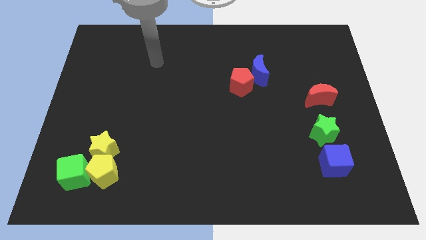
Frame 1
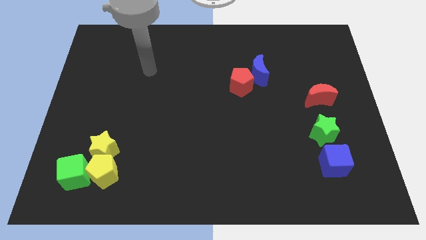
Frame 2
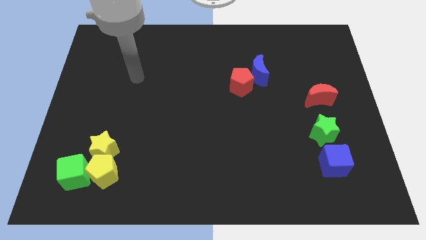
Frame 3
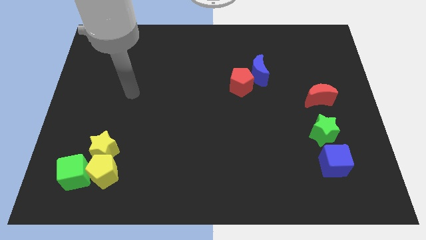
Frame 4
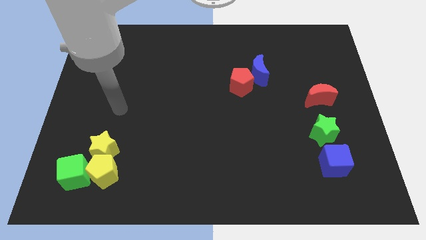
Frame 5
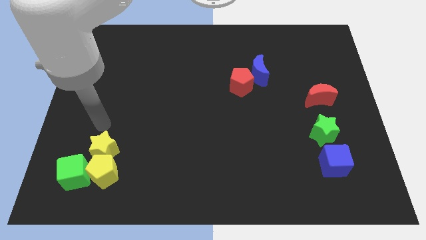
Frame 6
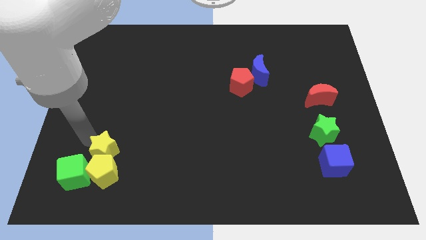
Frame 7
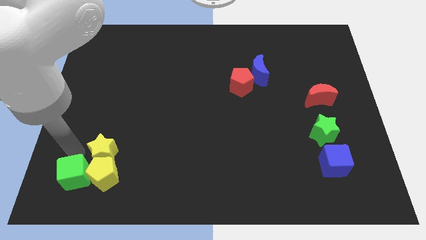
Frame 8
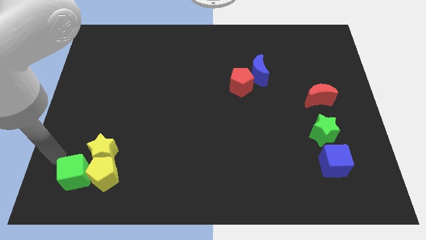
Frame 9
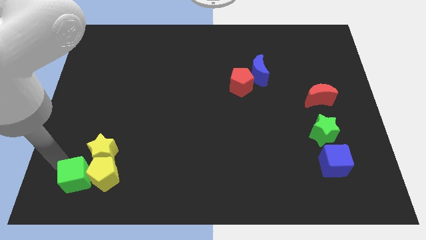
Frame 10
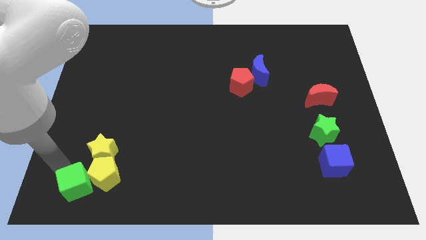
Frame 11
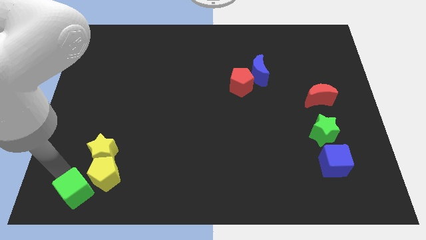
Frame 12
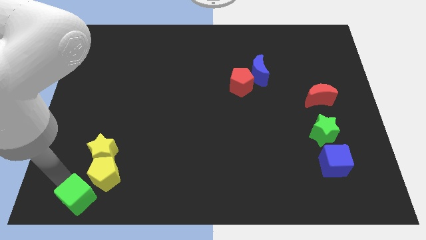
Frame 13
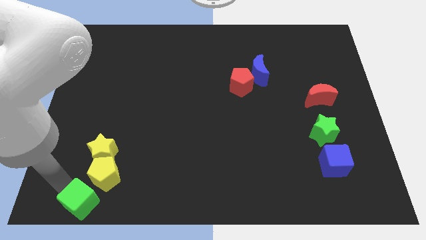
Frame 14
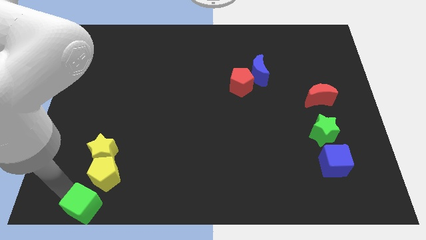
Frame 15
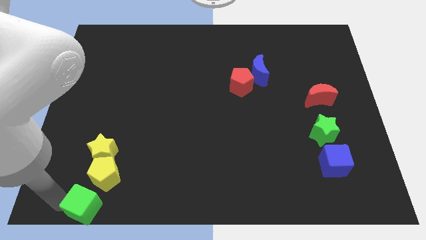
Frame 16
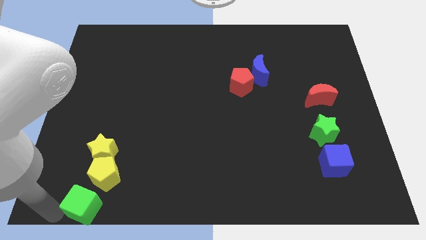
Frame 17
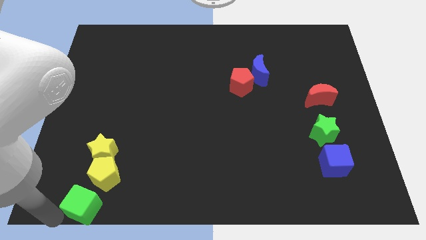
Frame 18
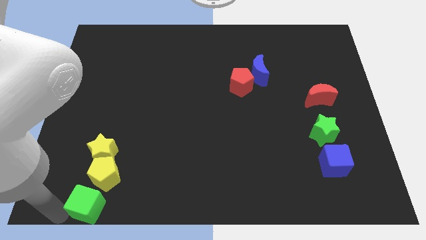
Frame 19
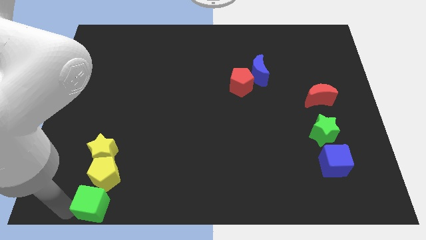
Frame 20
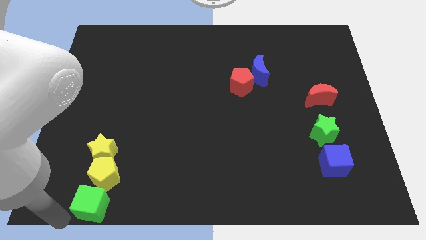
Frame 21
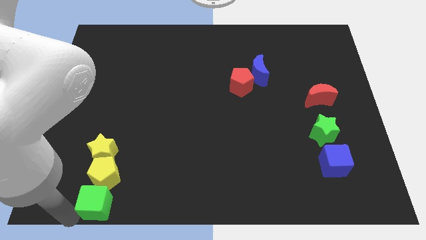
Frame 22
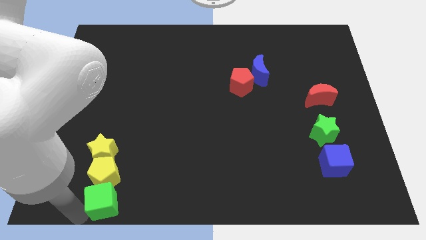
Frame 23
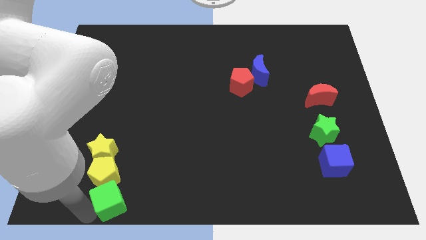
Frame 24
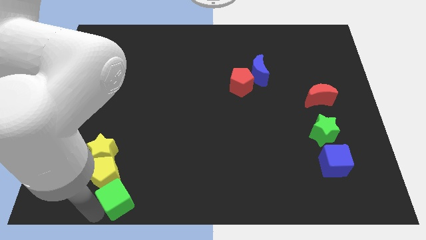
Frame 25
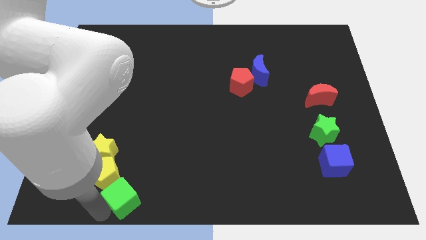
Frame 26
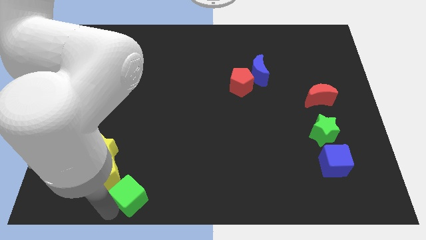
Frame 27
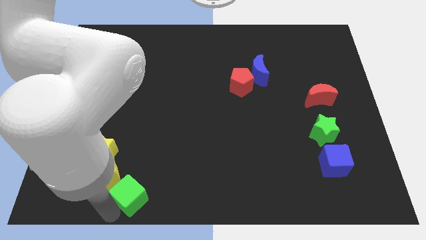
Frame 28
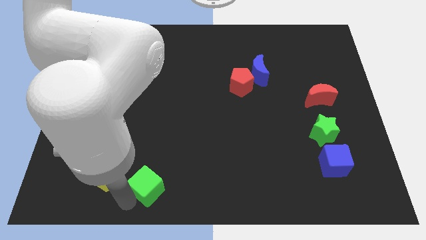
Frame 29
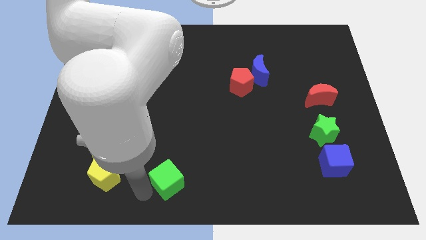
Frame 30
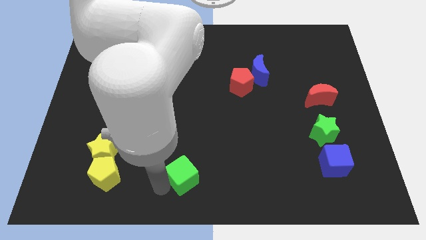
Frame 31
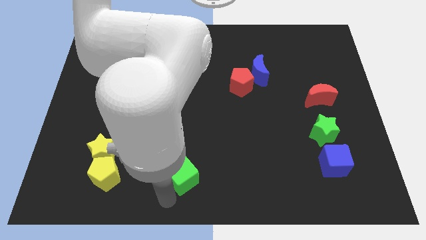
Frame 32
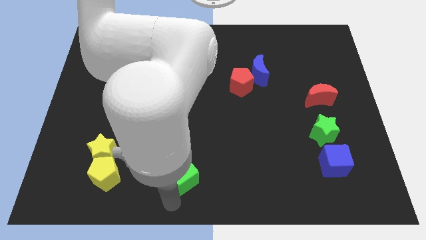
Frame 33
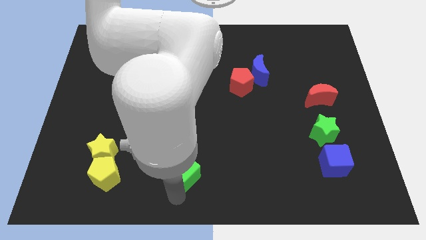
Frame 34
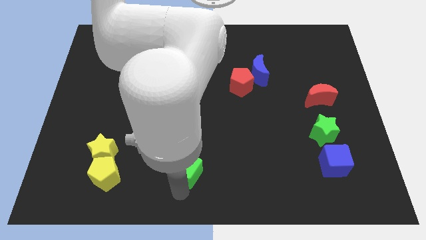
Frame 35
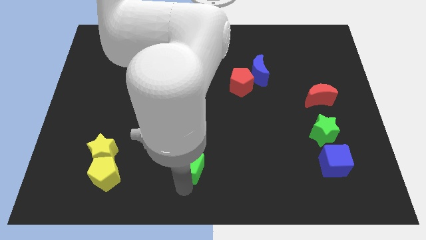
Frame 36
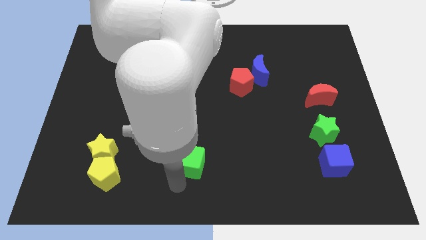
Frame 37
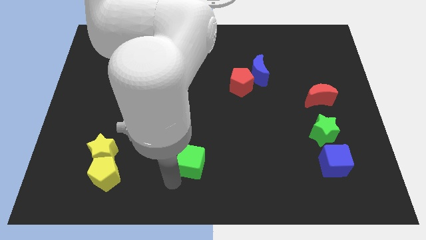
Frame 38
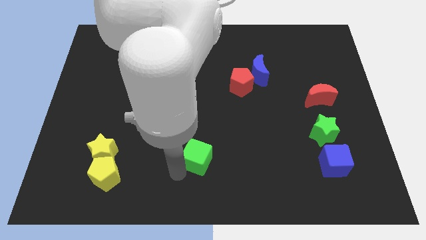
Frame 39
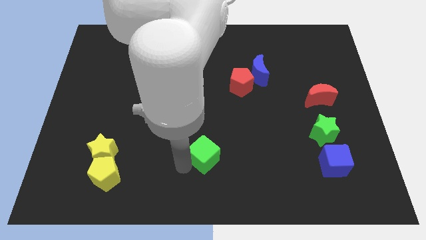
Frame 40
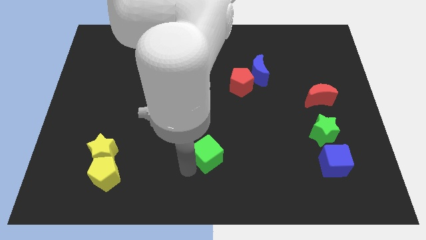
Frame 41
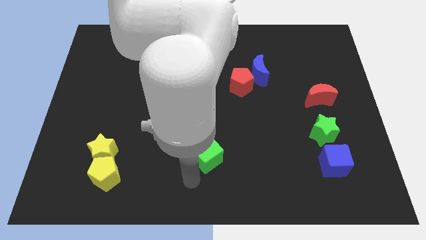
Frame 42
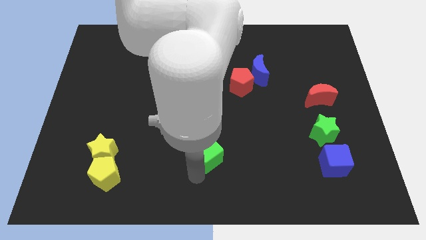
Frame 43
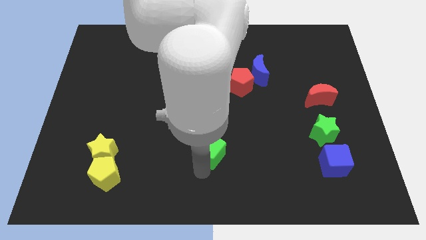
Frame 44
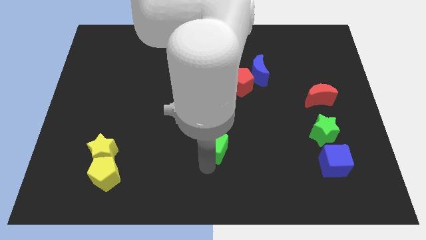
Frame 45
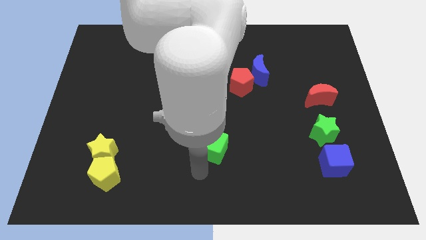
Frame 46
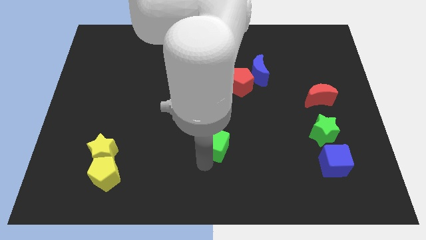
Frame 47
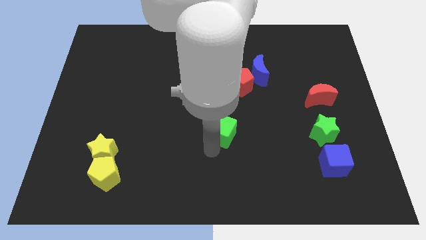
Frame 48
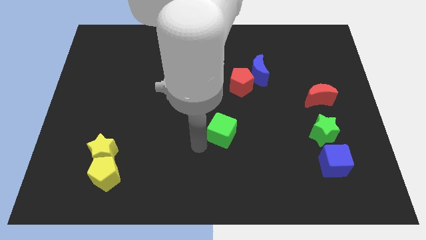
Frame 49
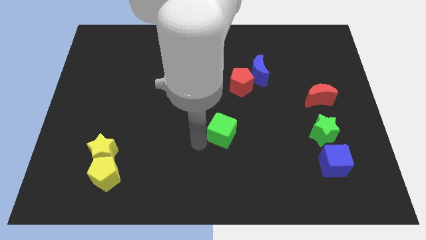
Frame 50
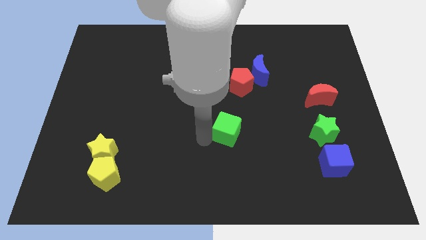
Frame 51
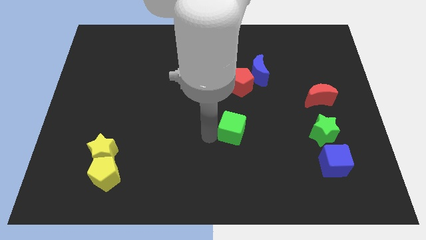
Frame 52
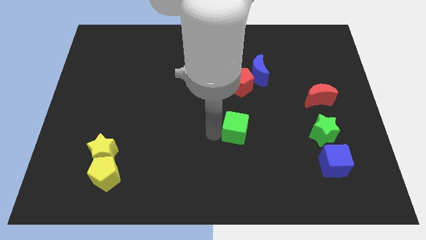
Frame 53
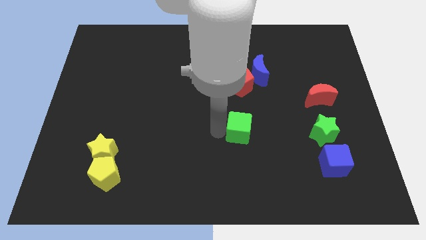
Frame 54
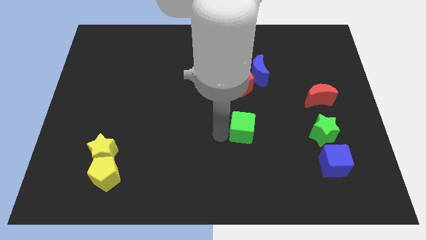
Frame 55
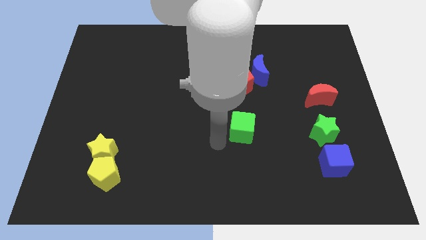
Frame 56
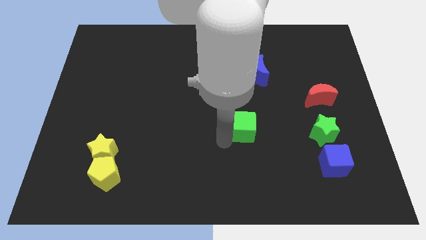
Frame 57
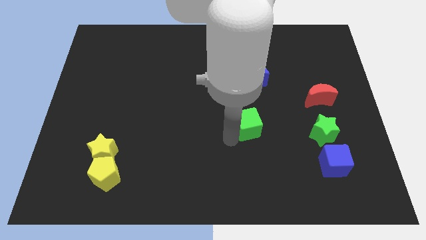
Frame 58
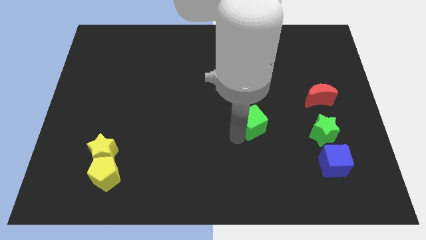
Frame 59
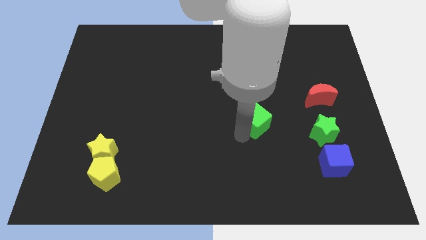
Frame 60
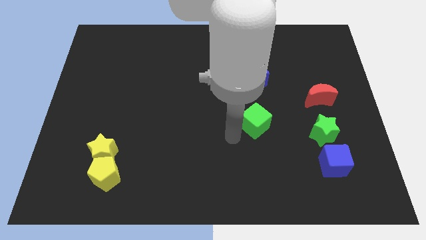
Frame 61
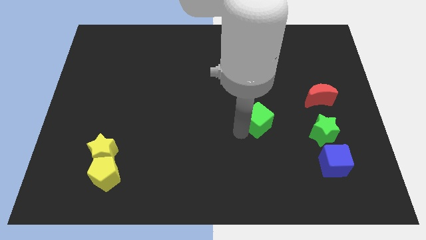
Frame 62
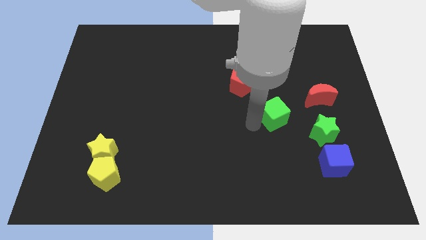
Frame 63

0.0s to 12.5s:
slide the green cube to the top left side of the green star

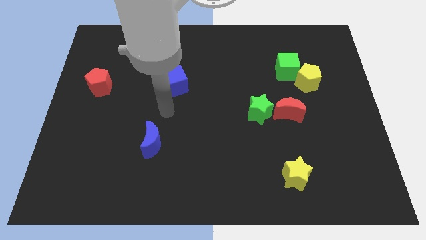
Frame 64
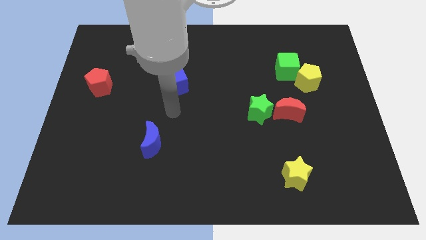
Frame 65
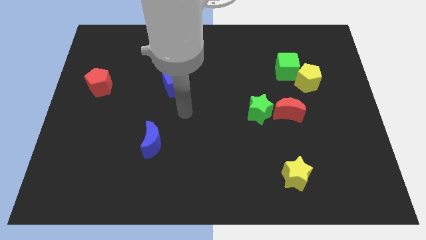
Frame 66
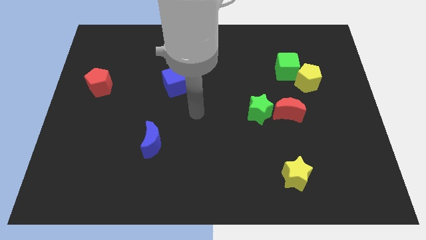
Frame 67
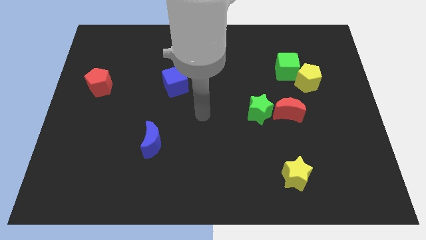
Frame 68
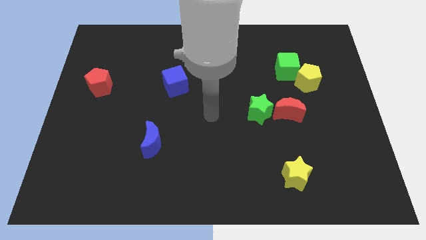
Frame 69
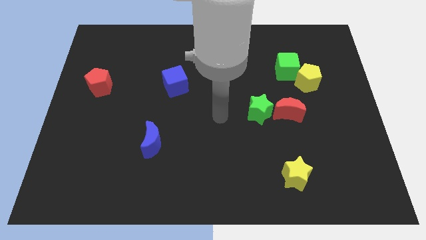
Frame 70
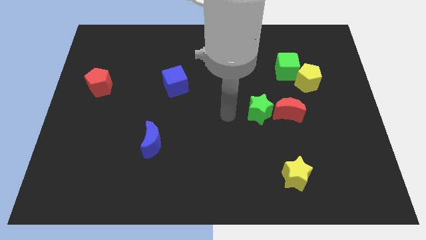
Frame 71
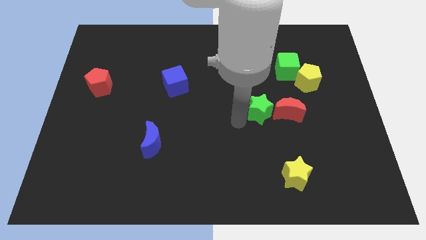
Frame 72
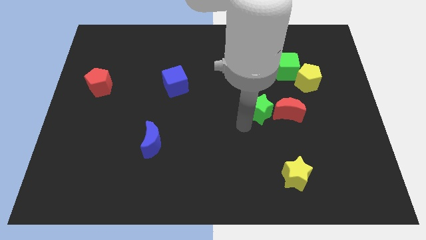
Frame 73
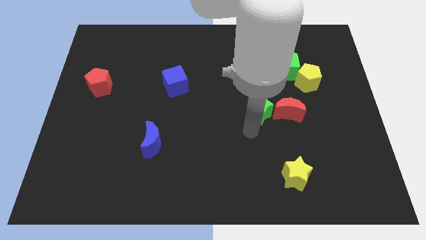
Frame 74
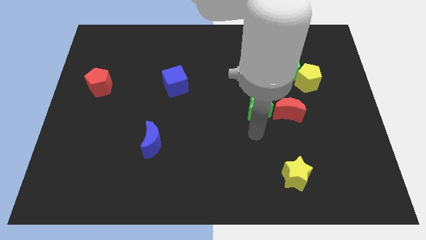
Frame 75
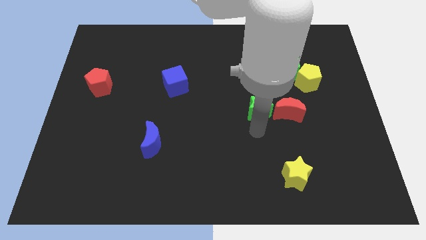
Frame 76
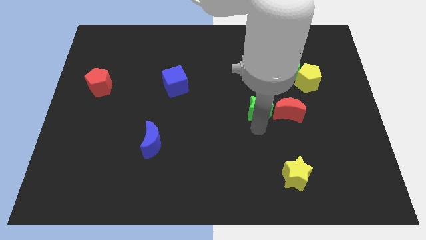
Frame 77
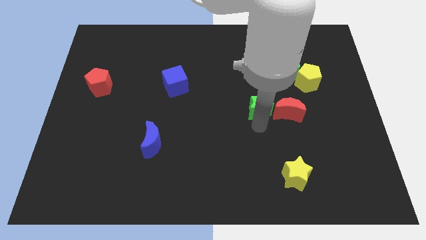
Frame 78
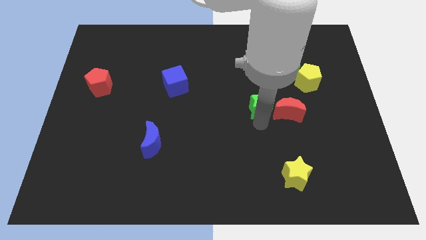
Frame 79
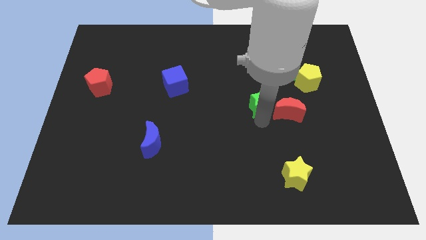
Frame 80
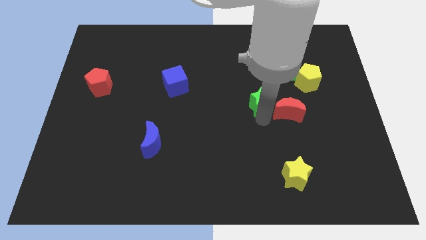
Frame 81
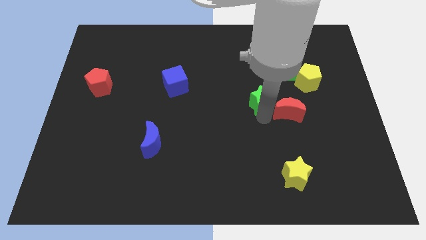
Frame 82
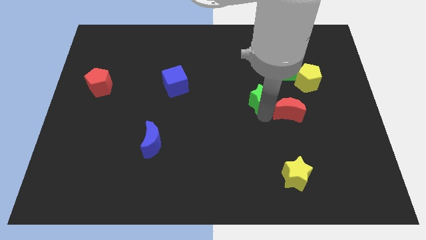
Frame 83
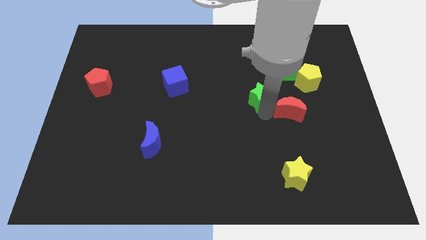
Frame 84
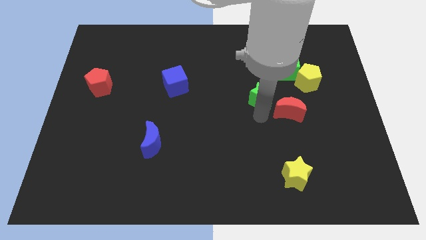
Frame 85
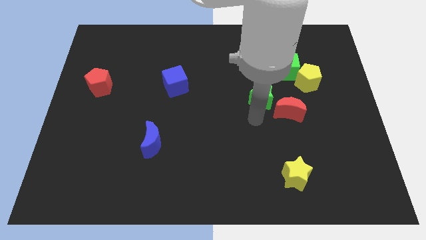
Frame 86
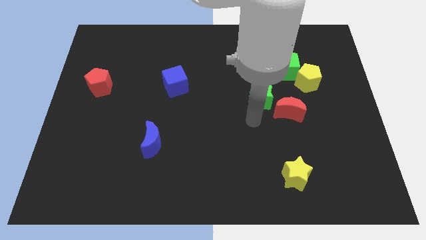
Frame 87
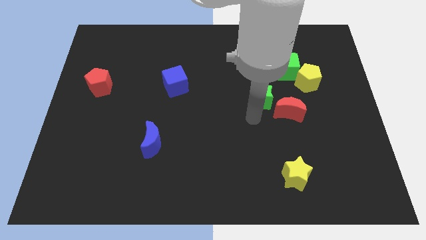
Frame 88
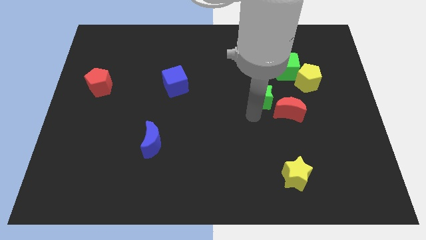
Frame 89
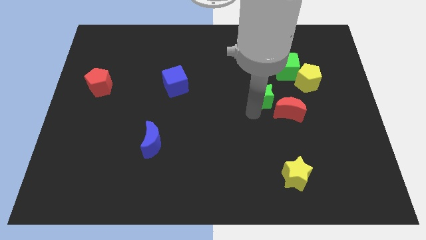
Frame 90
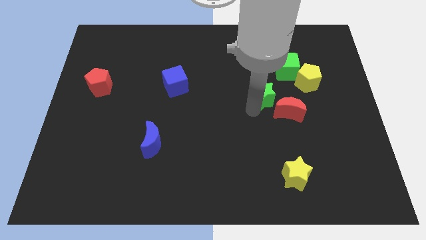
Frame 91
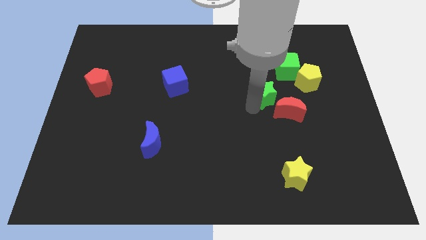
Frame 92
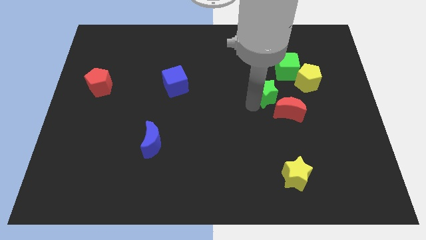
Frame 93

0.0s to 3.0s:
put the green star left of the yellow pentagon
